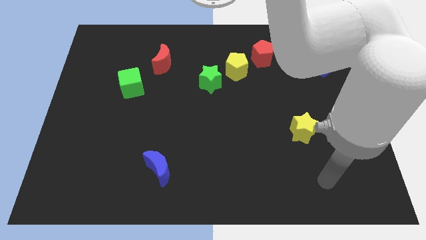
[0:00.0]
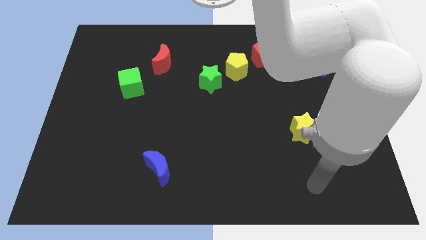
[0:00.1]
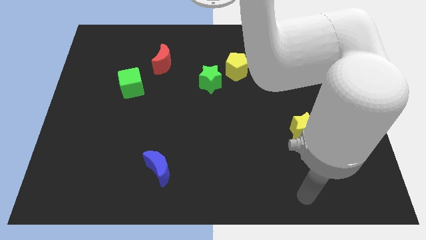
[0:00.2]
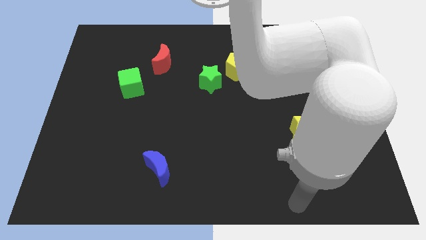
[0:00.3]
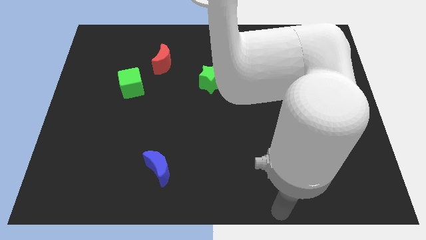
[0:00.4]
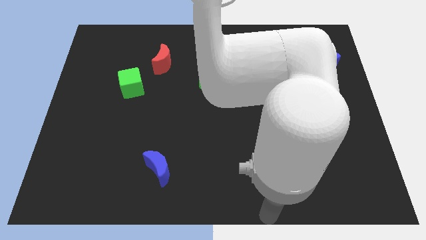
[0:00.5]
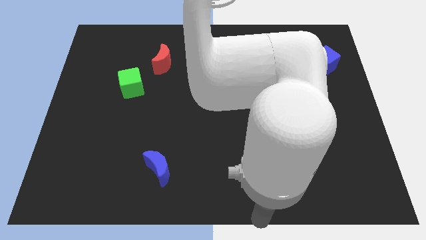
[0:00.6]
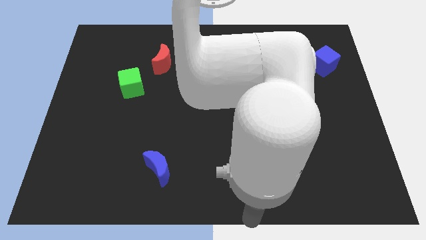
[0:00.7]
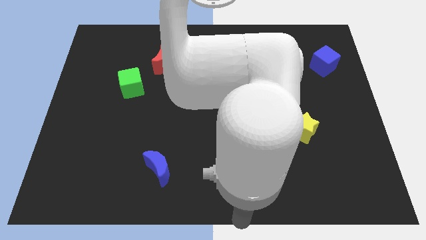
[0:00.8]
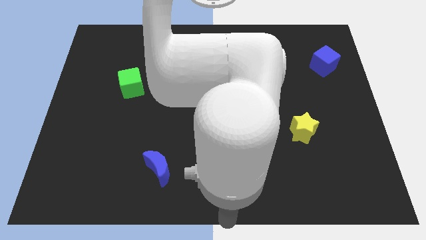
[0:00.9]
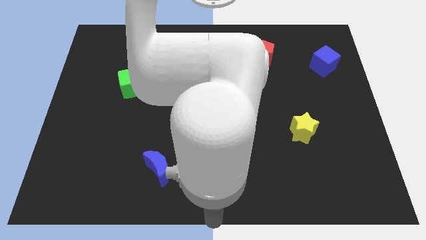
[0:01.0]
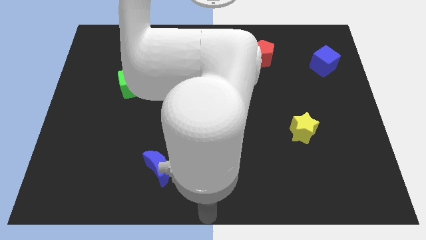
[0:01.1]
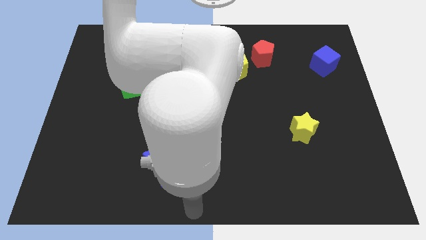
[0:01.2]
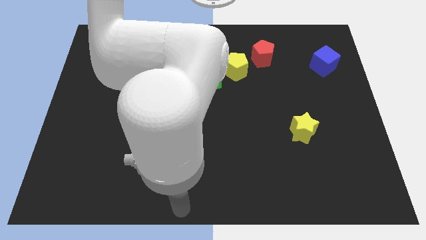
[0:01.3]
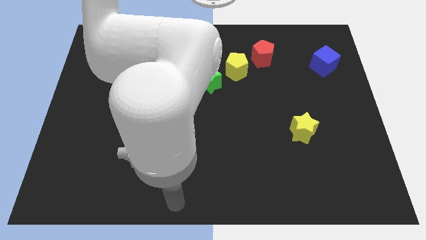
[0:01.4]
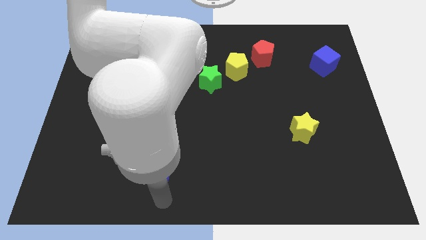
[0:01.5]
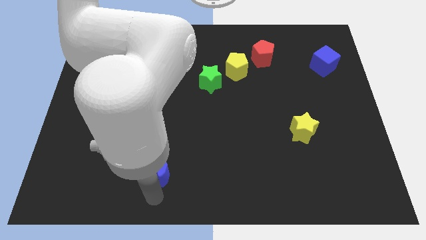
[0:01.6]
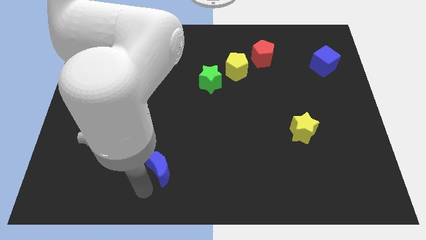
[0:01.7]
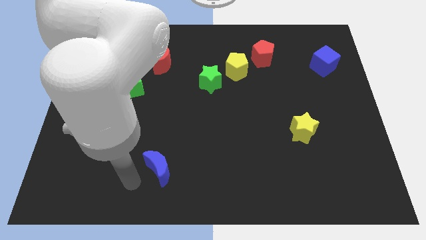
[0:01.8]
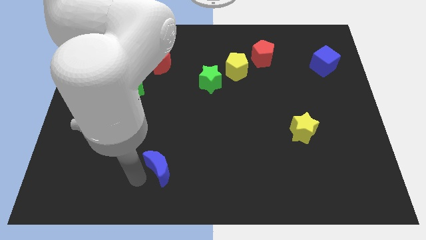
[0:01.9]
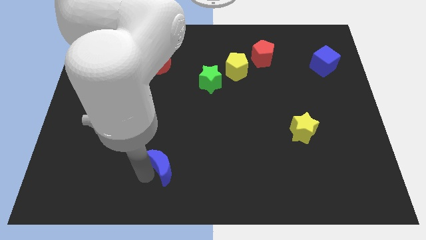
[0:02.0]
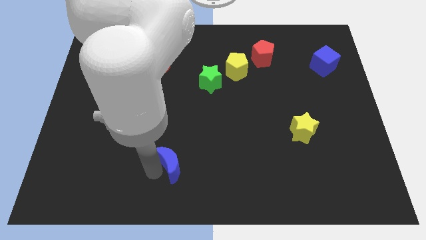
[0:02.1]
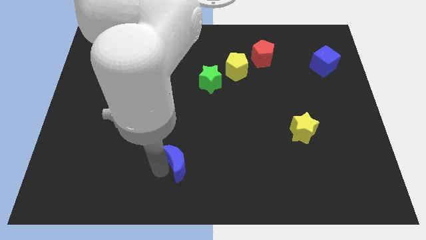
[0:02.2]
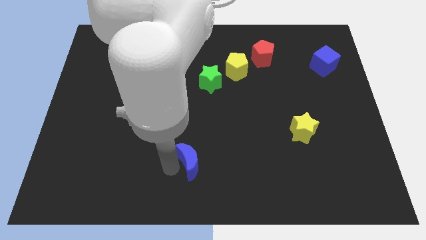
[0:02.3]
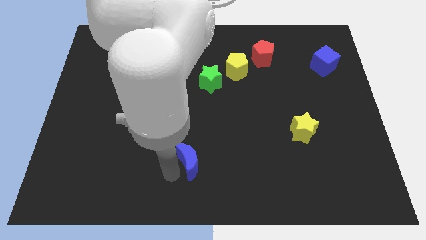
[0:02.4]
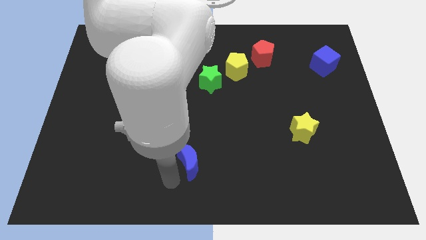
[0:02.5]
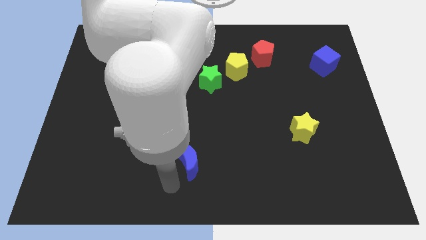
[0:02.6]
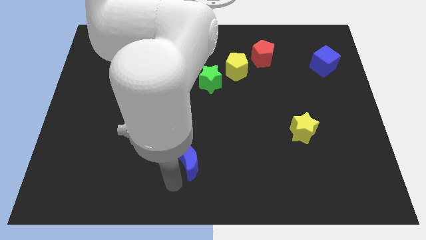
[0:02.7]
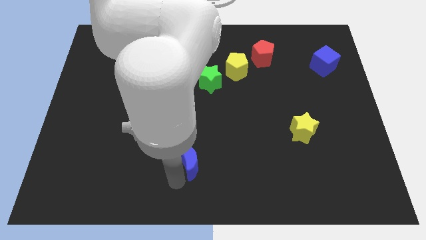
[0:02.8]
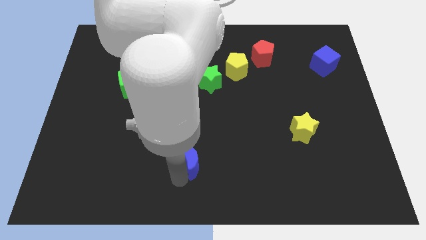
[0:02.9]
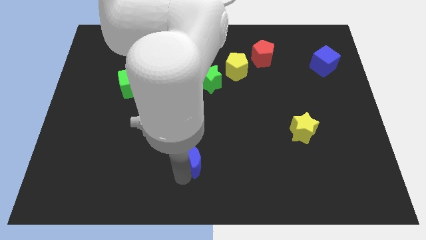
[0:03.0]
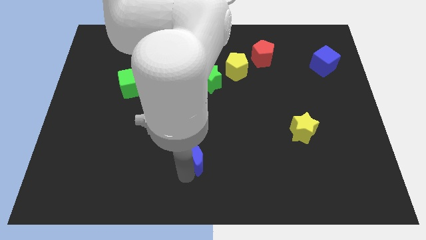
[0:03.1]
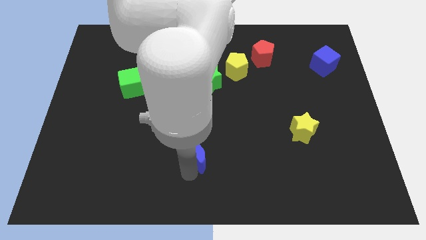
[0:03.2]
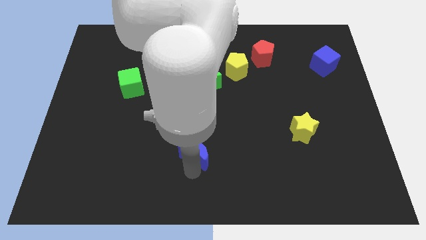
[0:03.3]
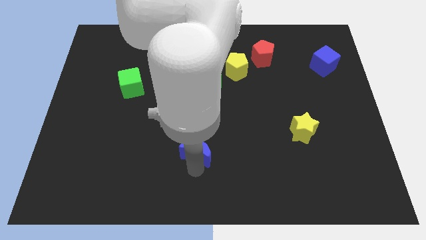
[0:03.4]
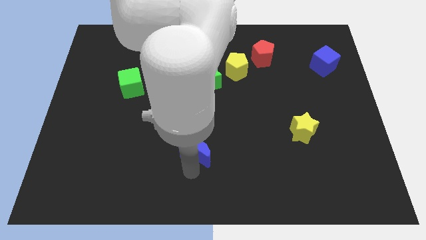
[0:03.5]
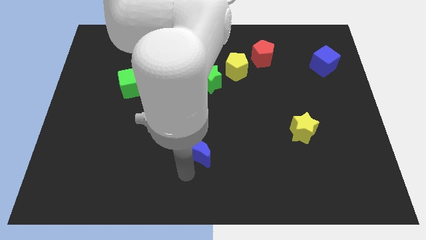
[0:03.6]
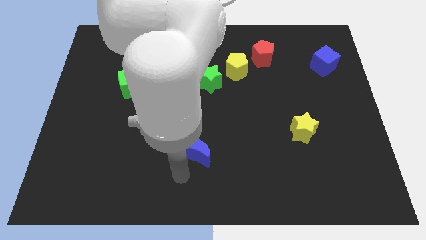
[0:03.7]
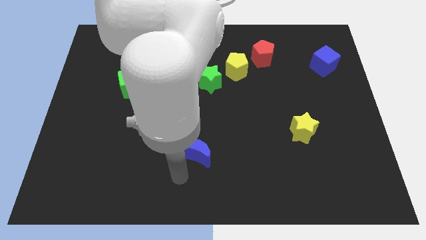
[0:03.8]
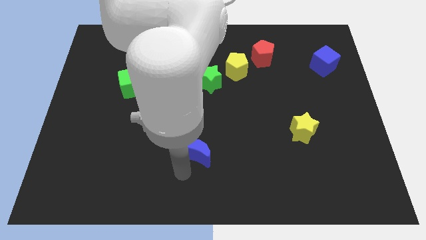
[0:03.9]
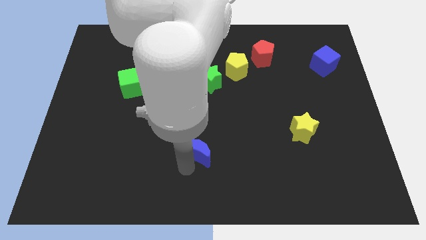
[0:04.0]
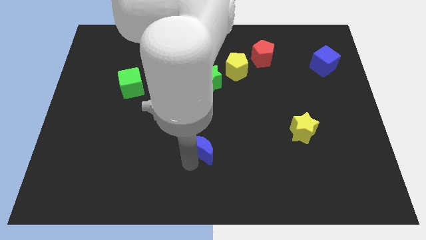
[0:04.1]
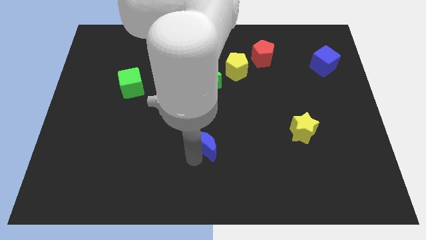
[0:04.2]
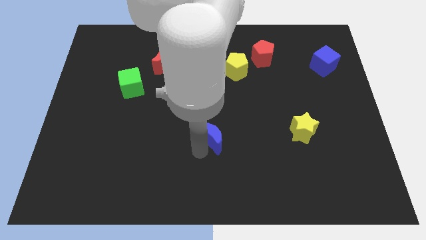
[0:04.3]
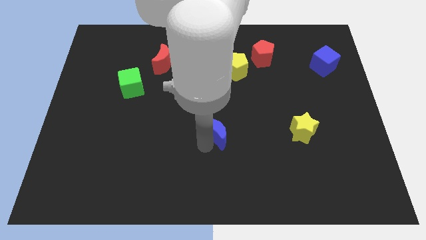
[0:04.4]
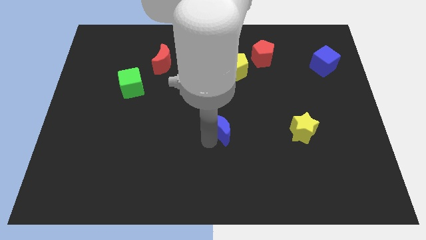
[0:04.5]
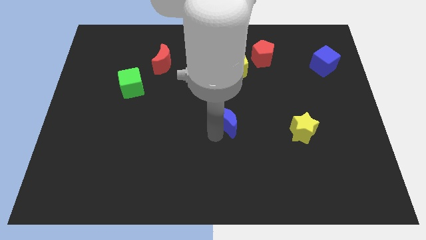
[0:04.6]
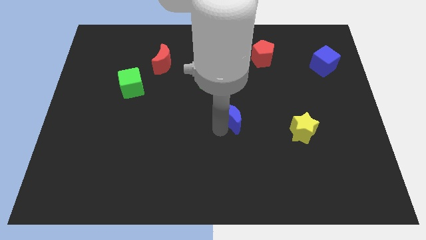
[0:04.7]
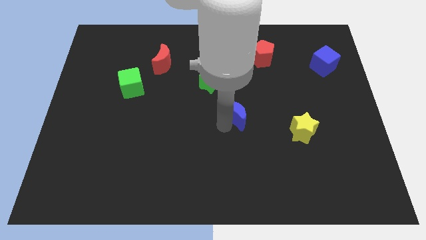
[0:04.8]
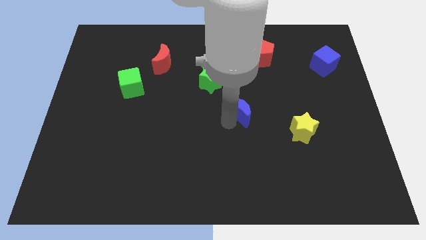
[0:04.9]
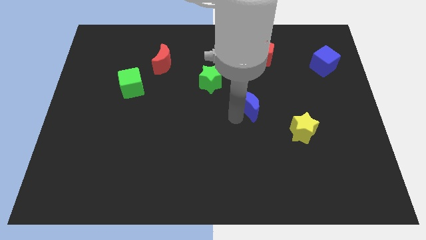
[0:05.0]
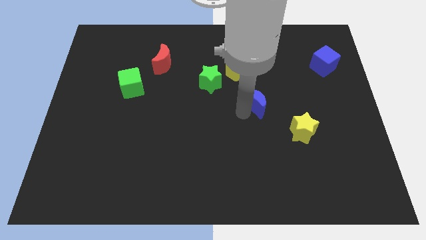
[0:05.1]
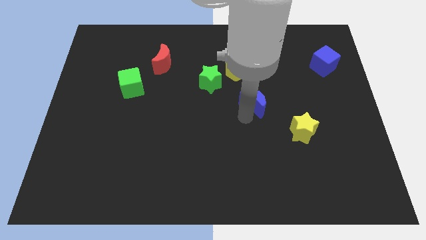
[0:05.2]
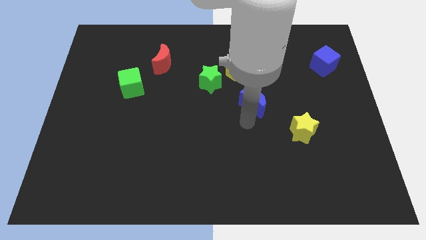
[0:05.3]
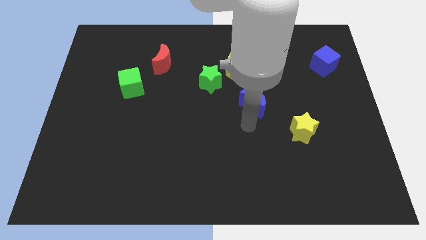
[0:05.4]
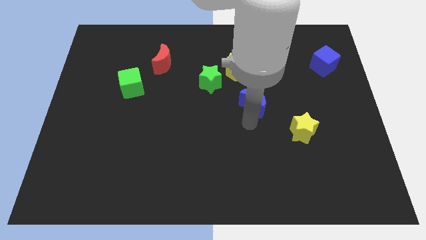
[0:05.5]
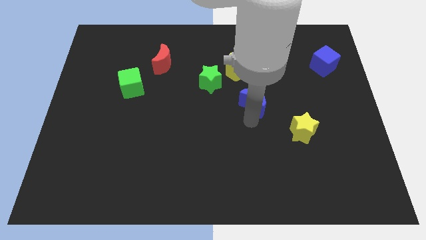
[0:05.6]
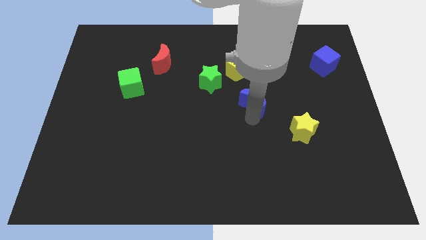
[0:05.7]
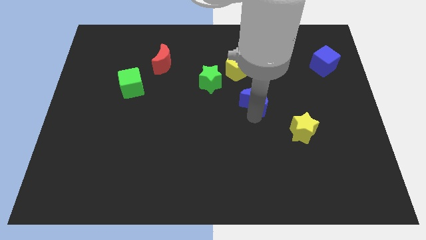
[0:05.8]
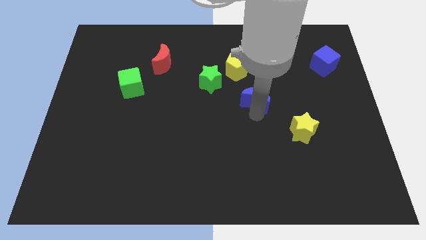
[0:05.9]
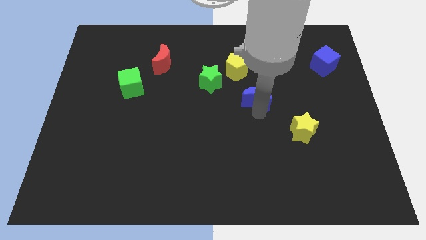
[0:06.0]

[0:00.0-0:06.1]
put the blue moon to the bottom right of the yellow pentagon

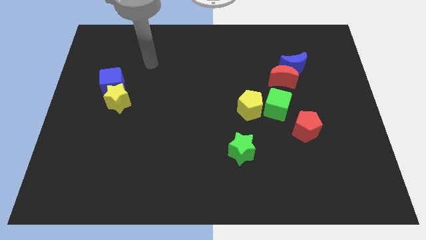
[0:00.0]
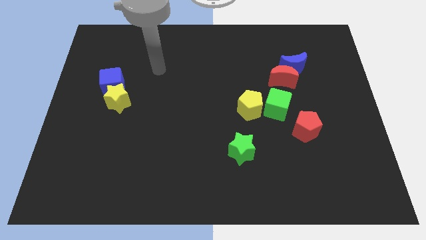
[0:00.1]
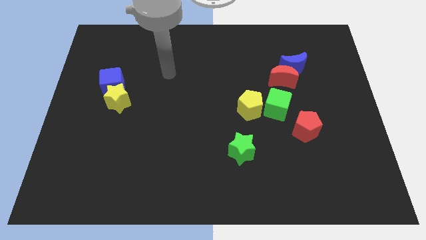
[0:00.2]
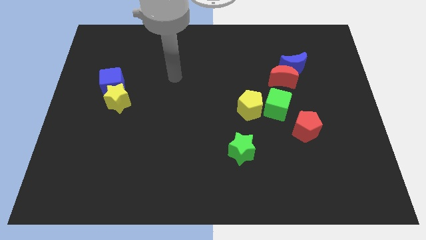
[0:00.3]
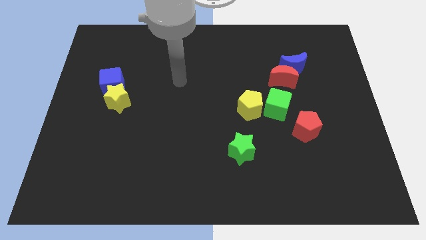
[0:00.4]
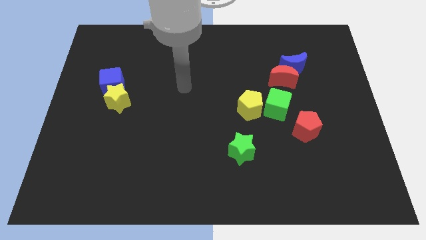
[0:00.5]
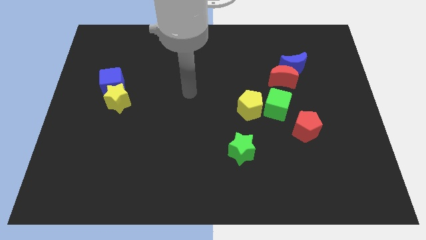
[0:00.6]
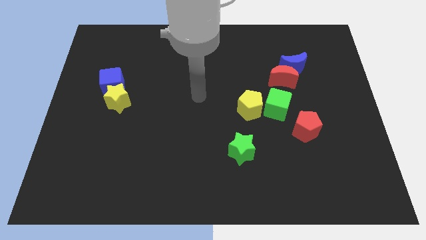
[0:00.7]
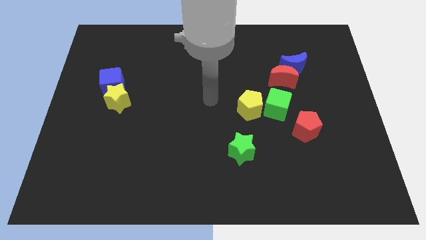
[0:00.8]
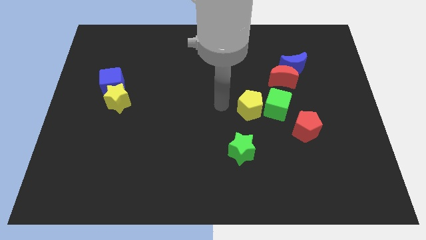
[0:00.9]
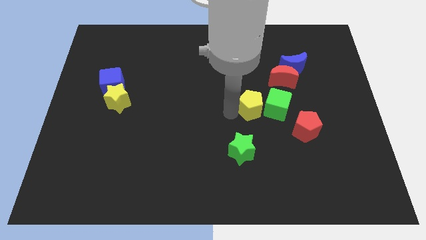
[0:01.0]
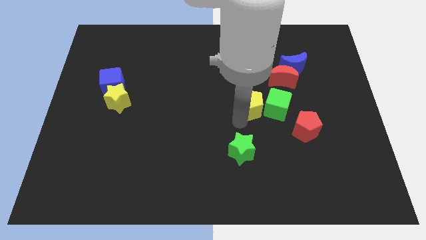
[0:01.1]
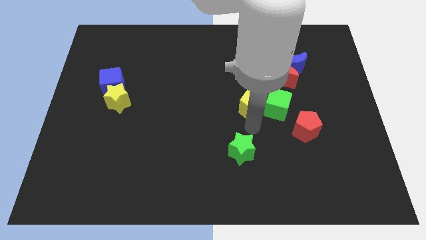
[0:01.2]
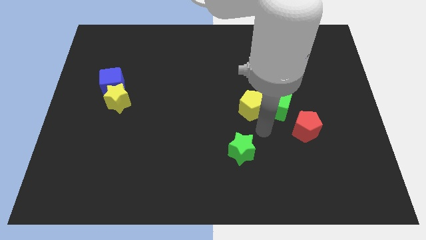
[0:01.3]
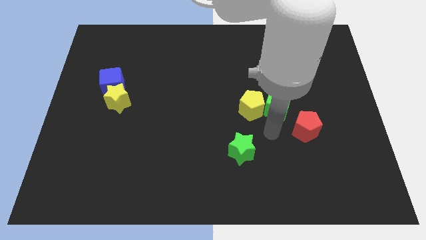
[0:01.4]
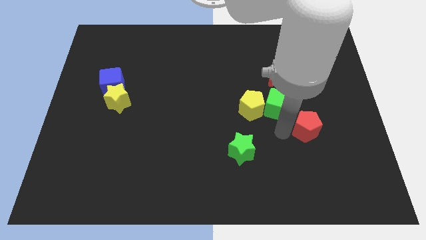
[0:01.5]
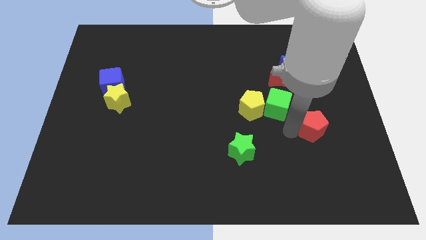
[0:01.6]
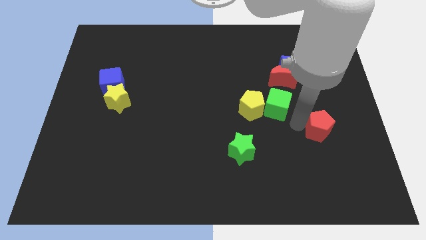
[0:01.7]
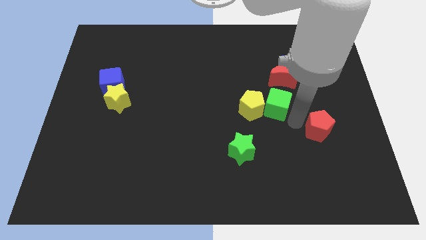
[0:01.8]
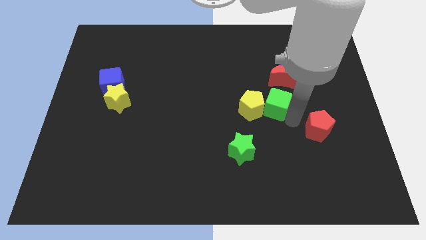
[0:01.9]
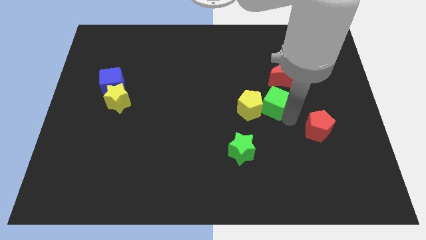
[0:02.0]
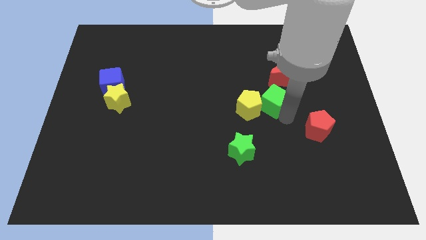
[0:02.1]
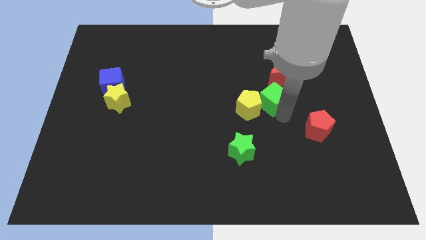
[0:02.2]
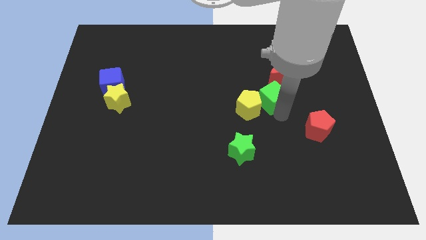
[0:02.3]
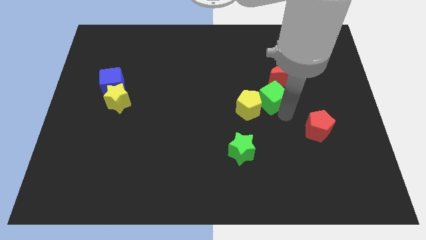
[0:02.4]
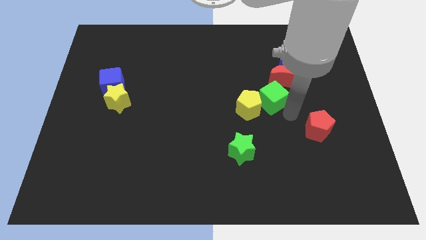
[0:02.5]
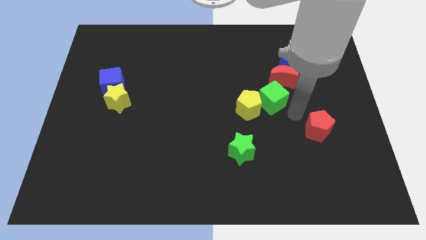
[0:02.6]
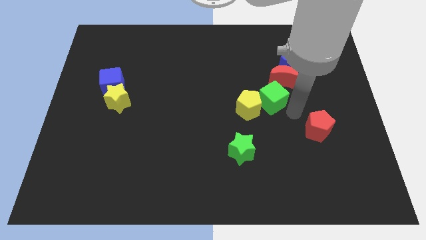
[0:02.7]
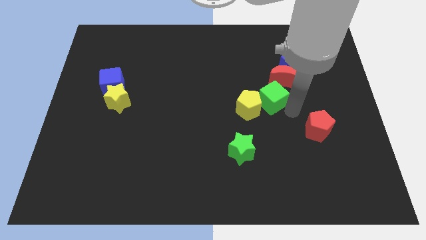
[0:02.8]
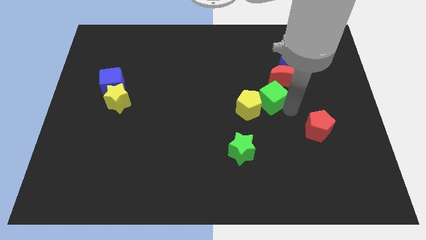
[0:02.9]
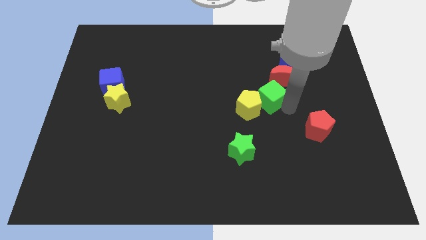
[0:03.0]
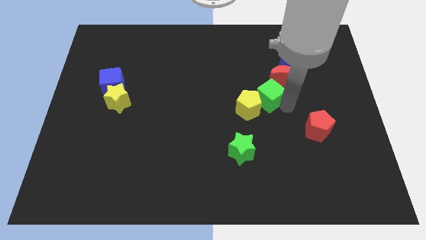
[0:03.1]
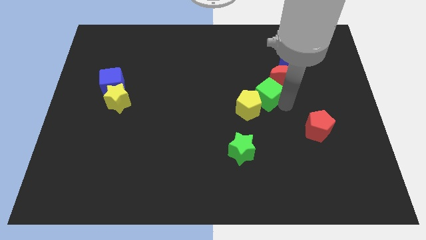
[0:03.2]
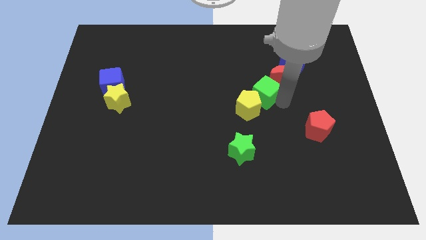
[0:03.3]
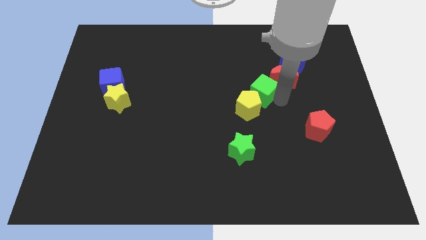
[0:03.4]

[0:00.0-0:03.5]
move the green cube left of the red moon
